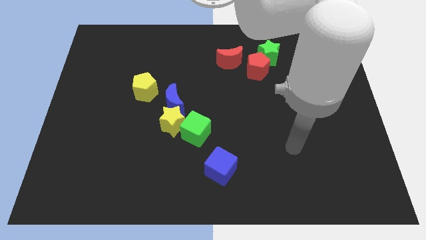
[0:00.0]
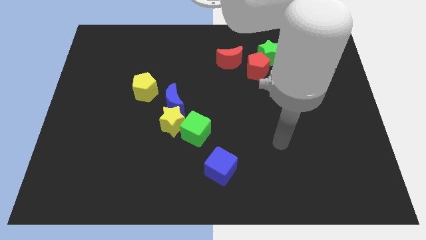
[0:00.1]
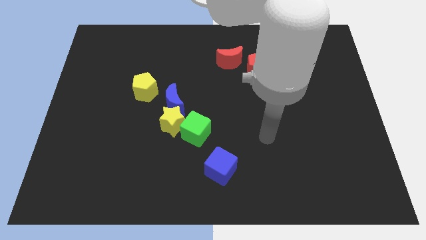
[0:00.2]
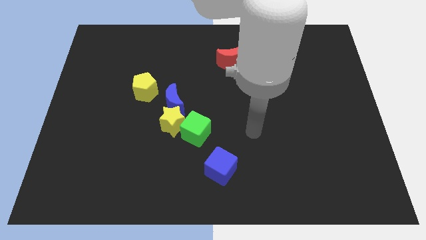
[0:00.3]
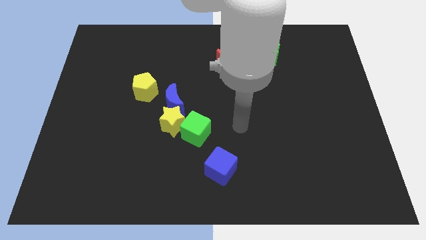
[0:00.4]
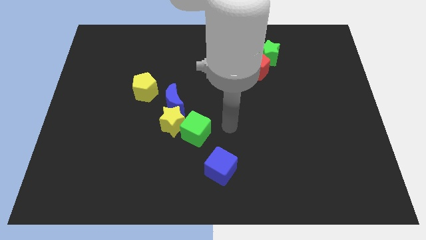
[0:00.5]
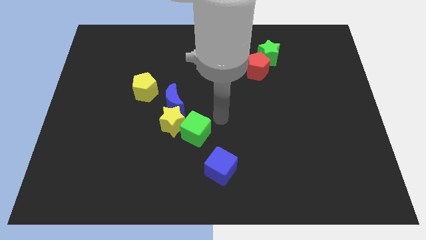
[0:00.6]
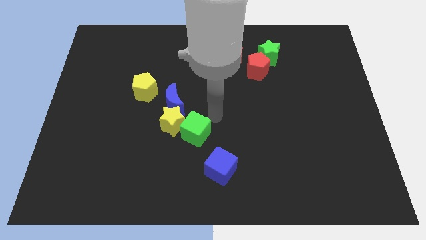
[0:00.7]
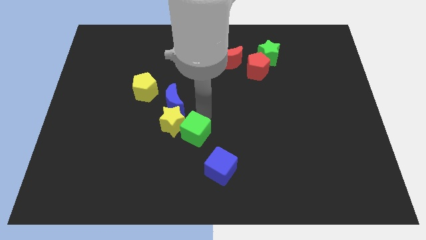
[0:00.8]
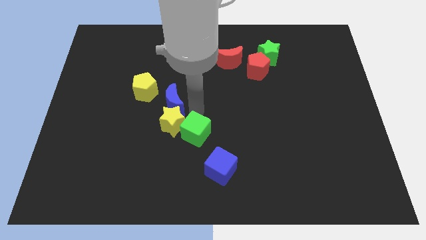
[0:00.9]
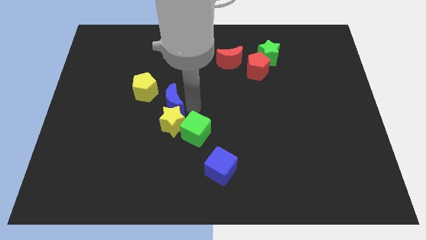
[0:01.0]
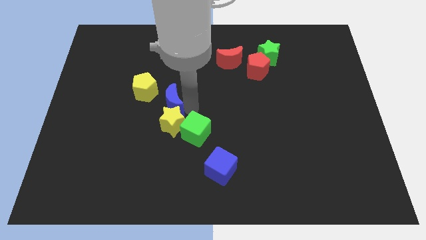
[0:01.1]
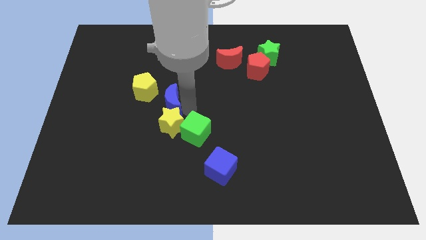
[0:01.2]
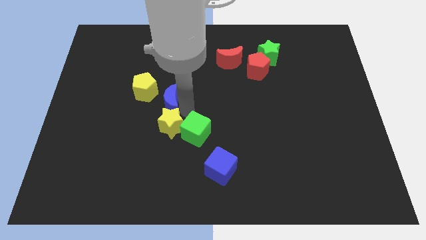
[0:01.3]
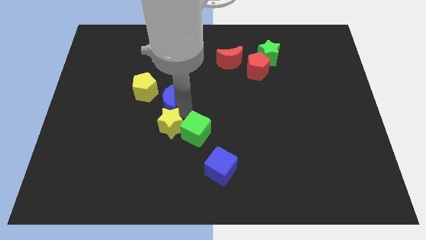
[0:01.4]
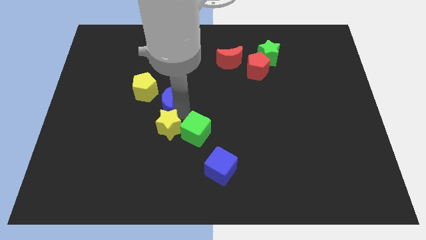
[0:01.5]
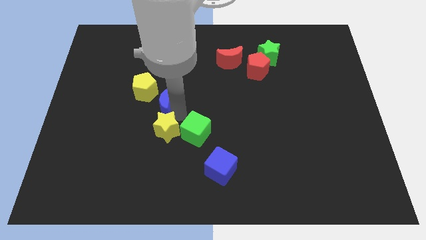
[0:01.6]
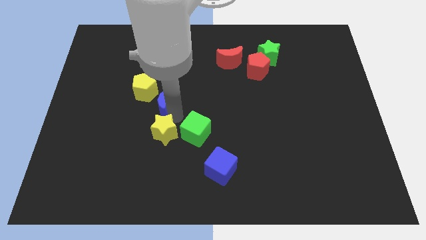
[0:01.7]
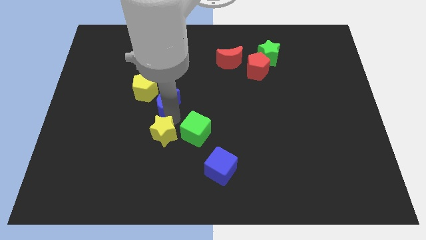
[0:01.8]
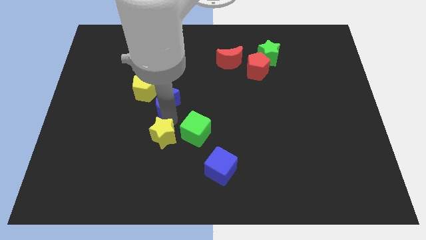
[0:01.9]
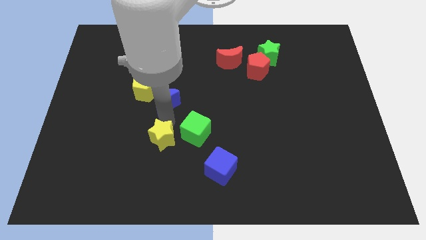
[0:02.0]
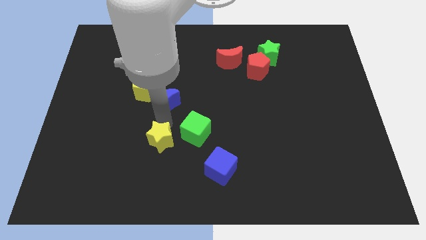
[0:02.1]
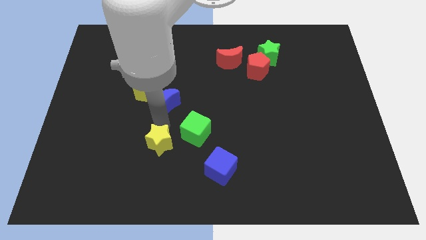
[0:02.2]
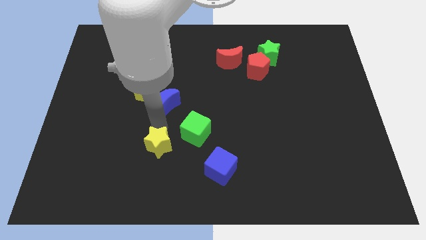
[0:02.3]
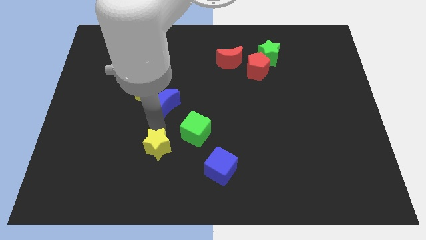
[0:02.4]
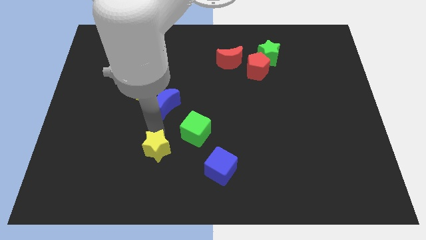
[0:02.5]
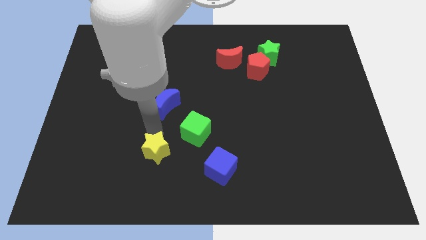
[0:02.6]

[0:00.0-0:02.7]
pull the yellow star apart from the blue moon and green cube

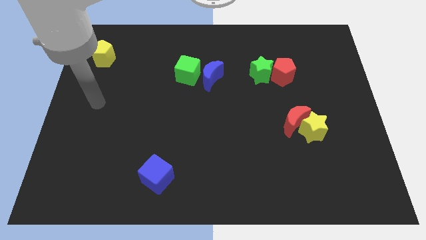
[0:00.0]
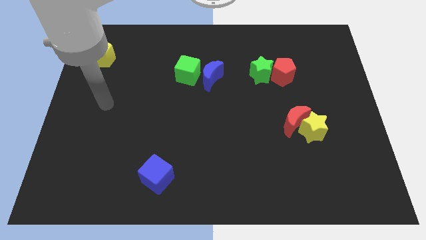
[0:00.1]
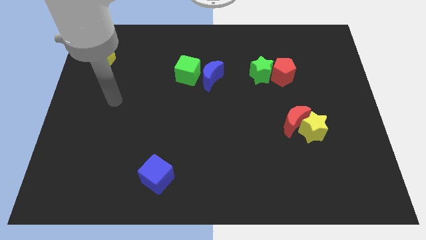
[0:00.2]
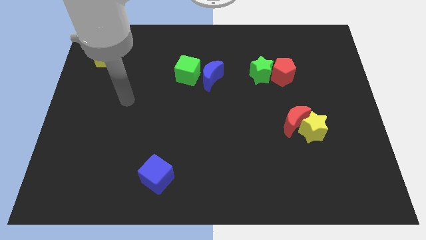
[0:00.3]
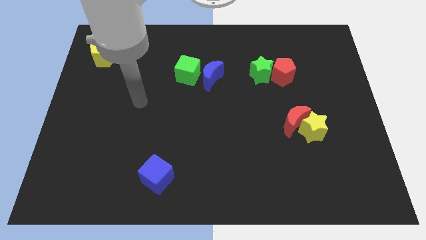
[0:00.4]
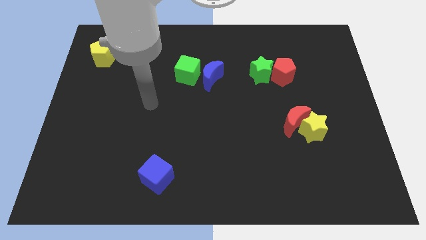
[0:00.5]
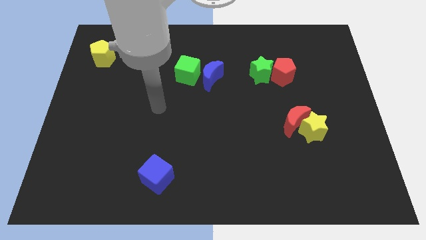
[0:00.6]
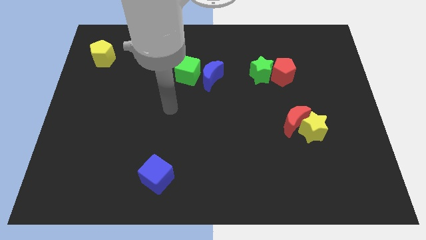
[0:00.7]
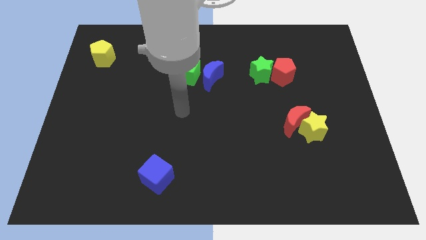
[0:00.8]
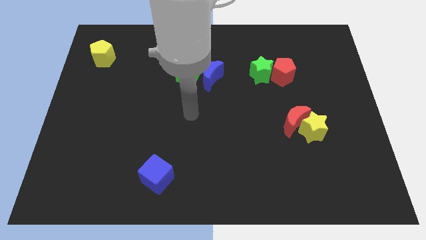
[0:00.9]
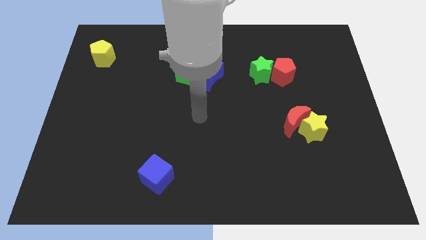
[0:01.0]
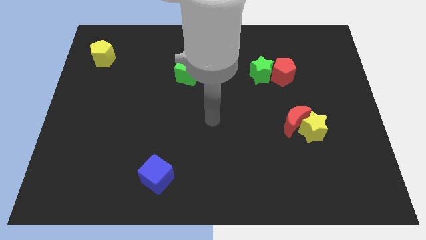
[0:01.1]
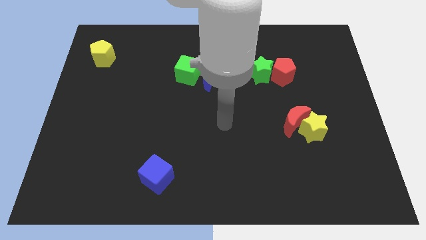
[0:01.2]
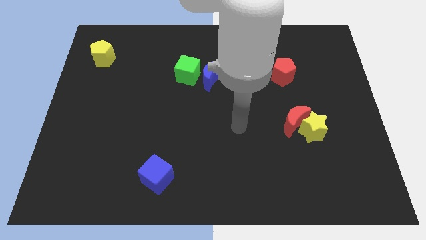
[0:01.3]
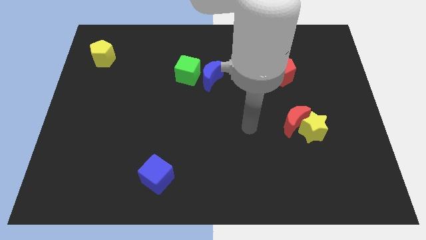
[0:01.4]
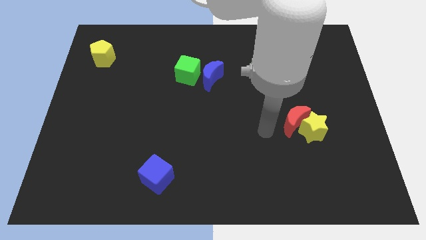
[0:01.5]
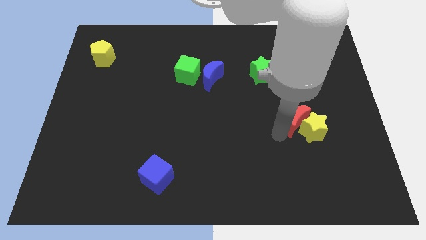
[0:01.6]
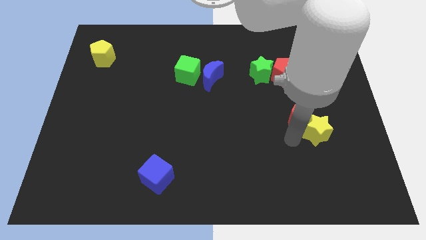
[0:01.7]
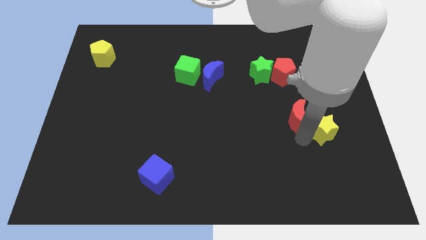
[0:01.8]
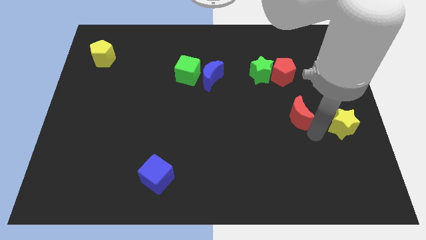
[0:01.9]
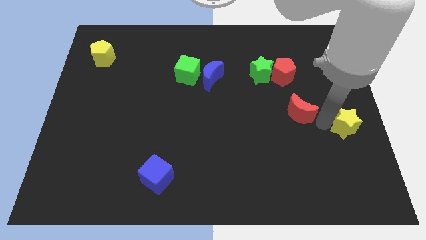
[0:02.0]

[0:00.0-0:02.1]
pull the red moon apart from the yellow star

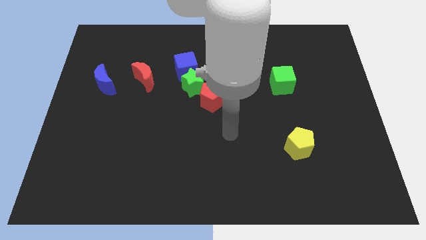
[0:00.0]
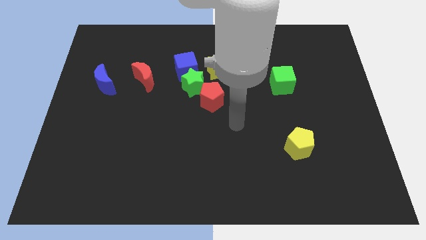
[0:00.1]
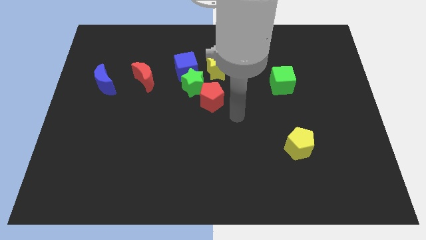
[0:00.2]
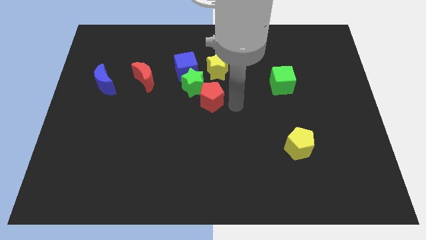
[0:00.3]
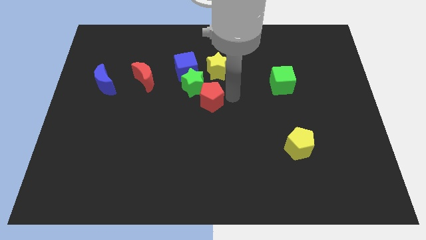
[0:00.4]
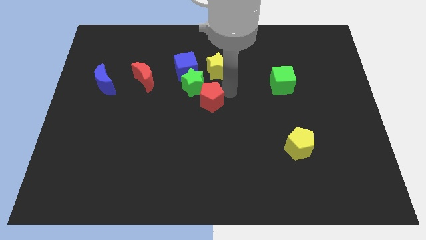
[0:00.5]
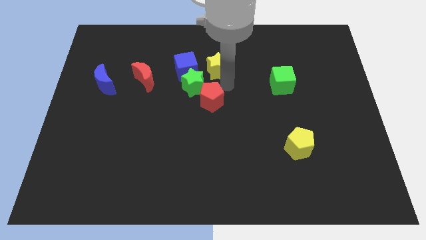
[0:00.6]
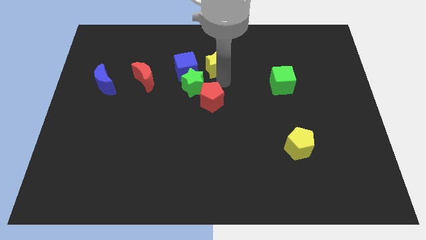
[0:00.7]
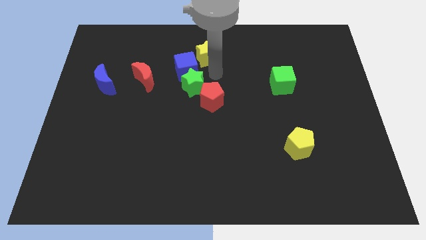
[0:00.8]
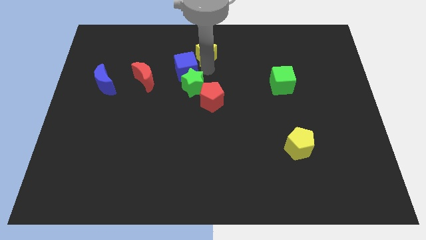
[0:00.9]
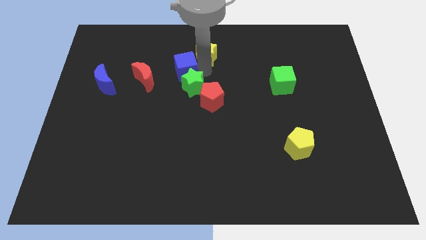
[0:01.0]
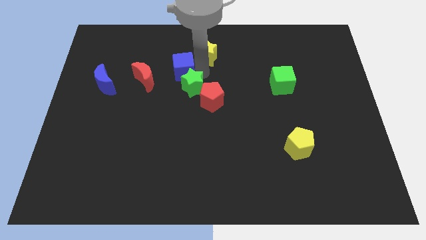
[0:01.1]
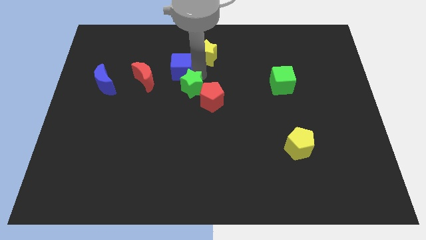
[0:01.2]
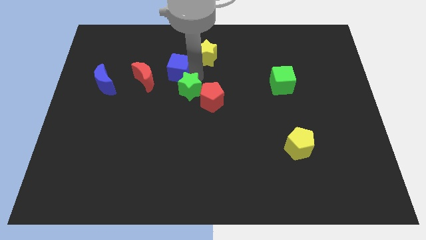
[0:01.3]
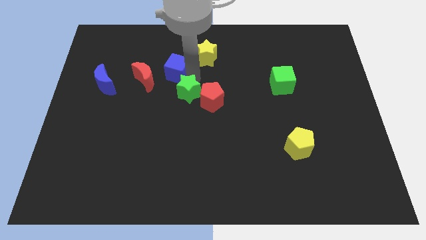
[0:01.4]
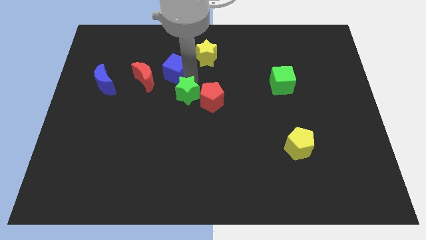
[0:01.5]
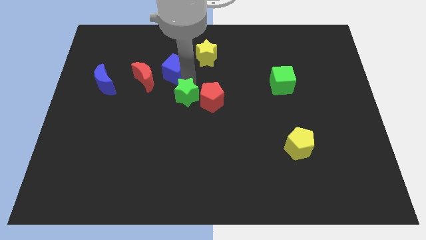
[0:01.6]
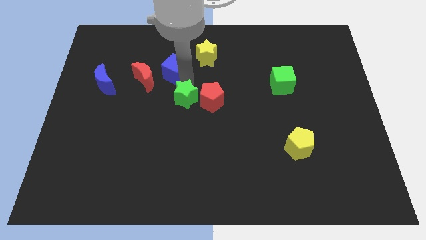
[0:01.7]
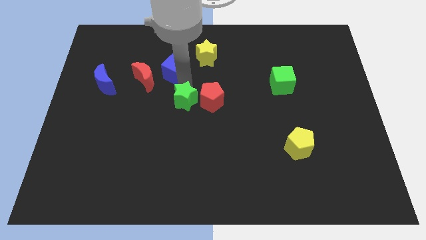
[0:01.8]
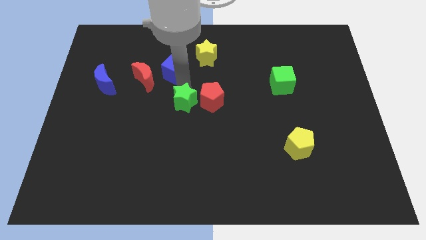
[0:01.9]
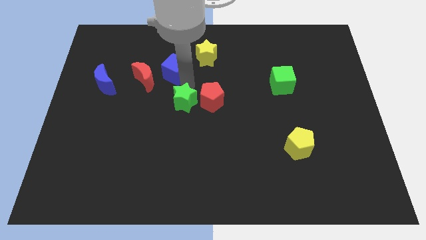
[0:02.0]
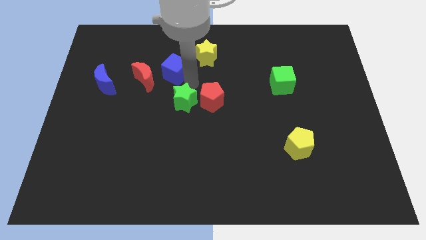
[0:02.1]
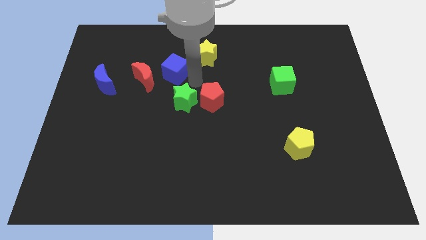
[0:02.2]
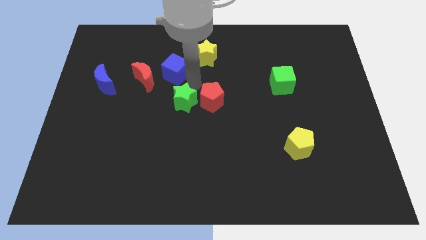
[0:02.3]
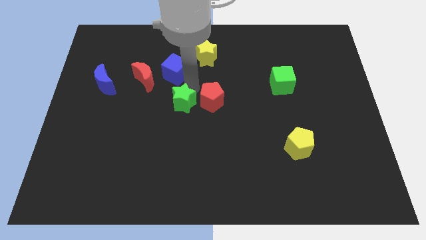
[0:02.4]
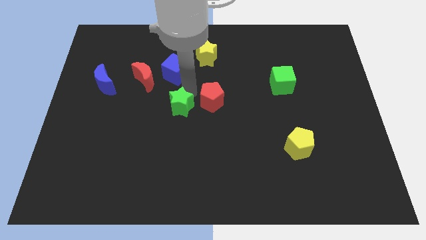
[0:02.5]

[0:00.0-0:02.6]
move the green star away from the group of blocks

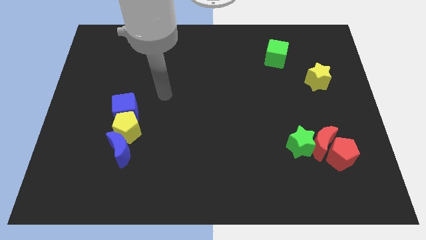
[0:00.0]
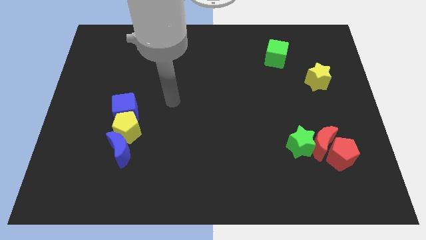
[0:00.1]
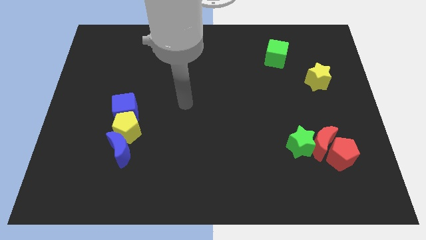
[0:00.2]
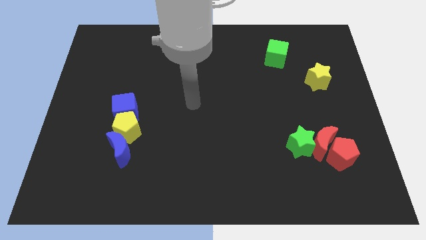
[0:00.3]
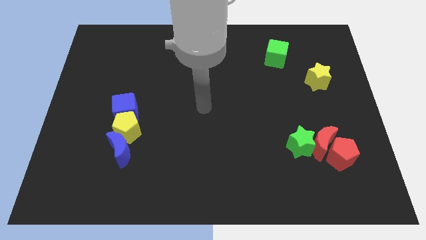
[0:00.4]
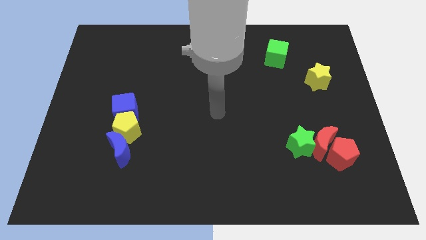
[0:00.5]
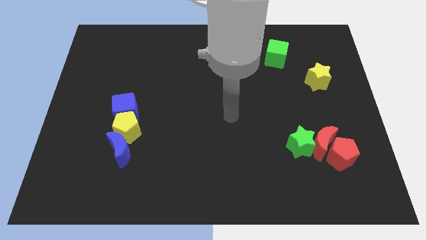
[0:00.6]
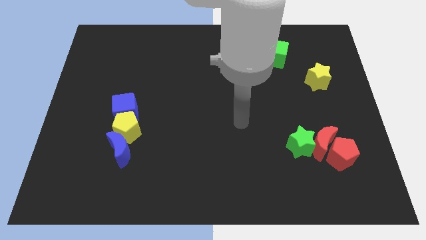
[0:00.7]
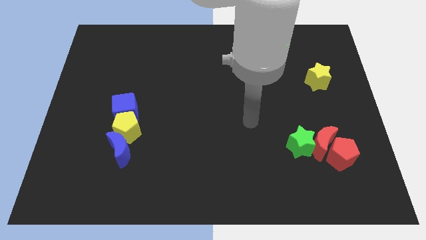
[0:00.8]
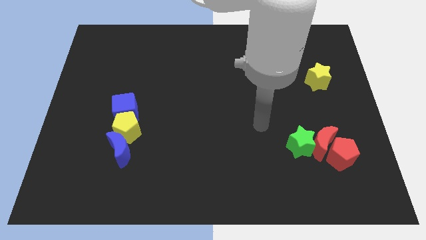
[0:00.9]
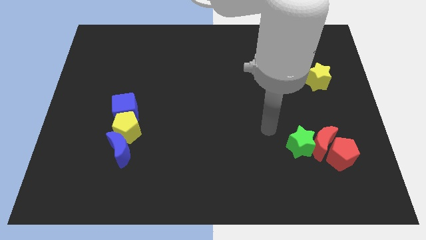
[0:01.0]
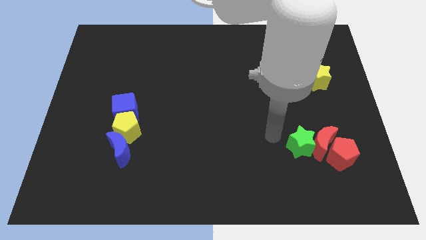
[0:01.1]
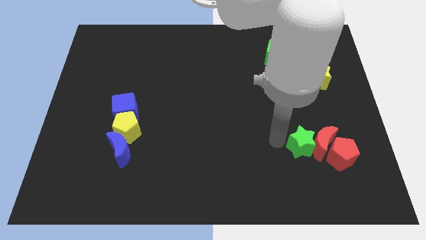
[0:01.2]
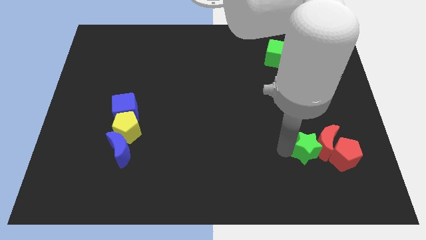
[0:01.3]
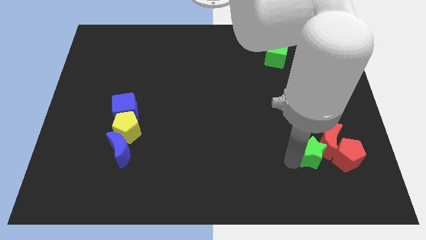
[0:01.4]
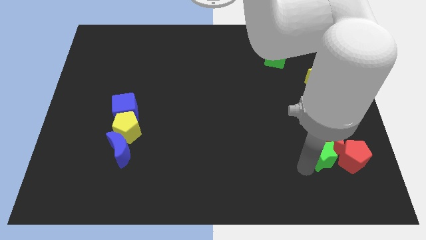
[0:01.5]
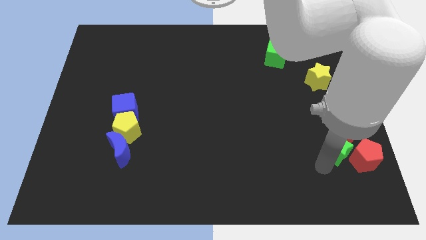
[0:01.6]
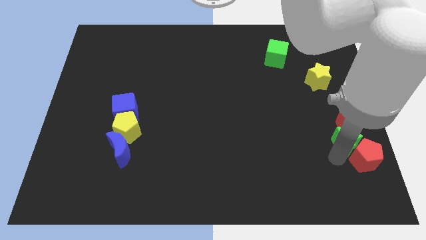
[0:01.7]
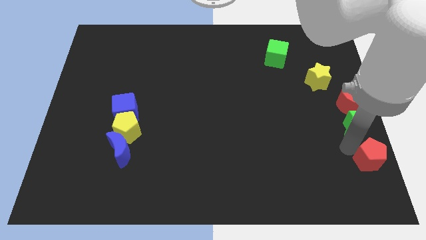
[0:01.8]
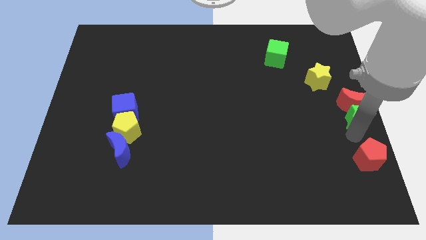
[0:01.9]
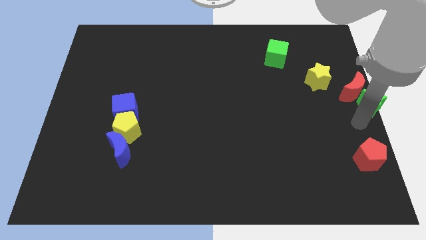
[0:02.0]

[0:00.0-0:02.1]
pull the red moon apart from the green star and red pentagon
